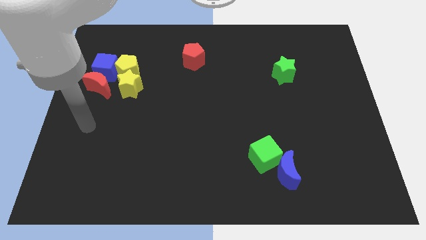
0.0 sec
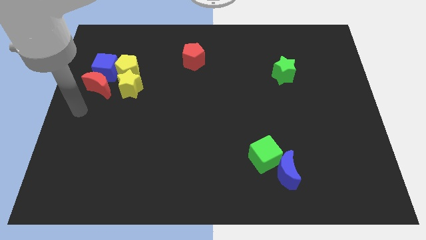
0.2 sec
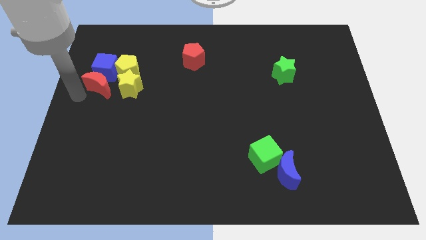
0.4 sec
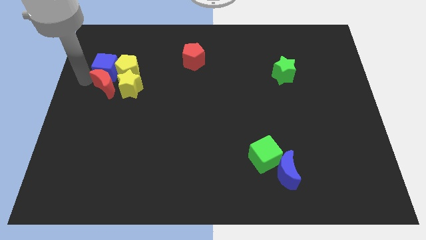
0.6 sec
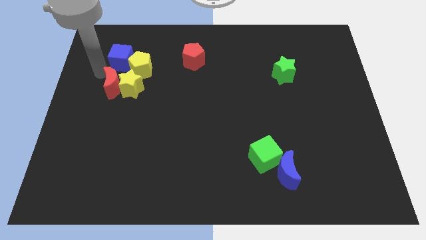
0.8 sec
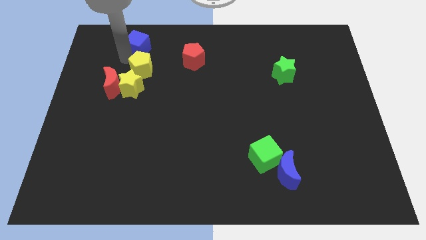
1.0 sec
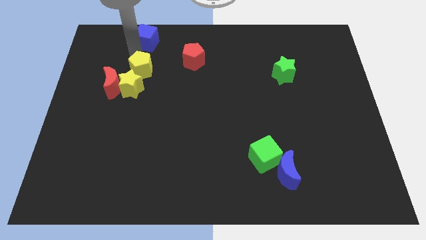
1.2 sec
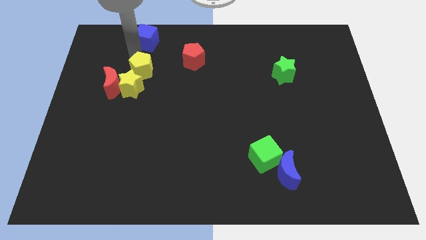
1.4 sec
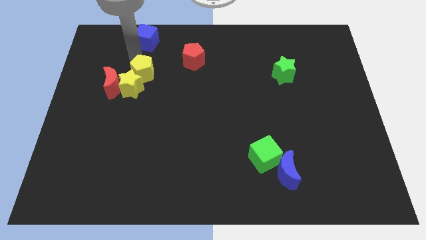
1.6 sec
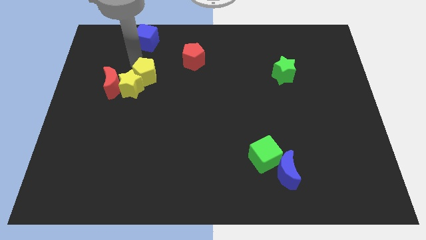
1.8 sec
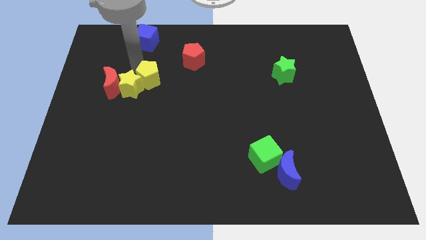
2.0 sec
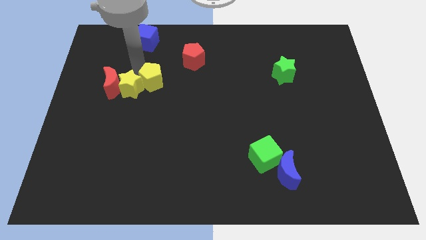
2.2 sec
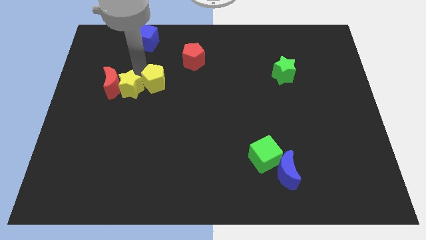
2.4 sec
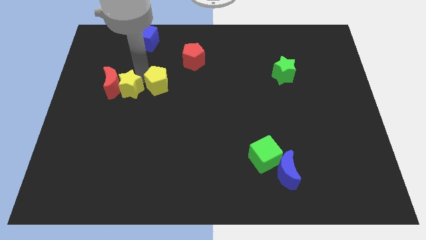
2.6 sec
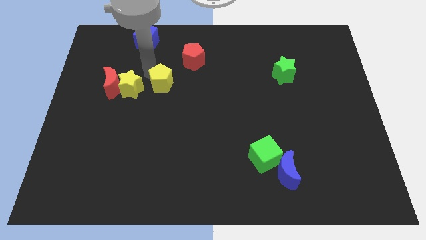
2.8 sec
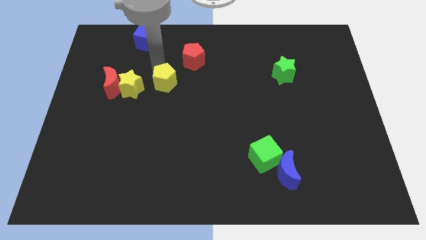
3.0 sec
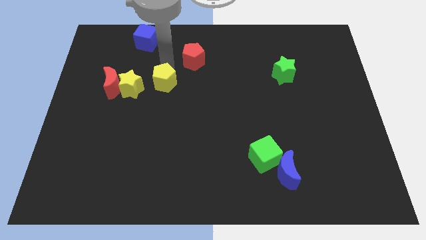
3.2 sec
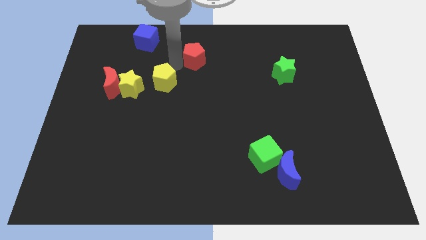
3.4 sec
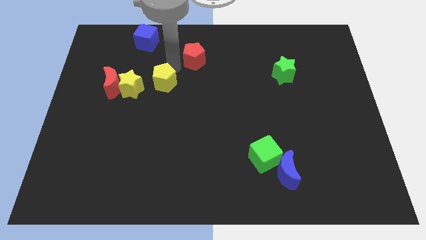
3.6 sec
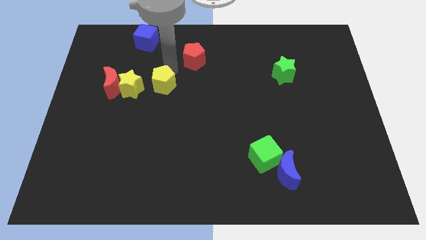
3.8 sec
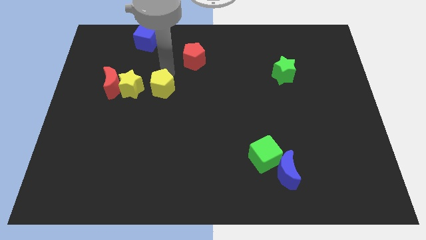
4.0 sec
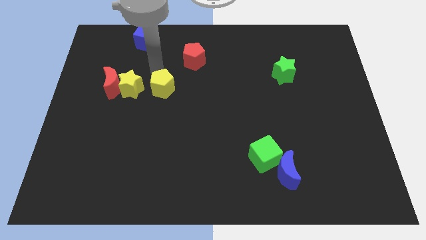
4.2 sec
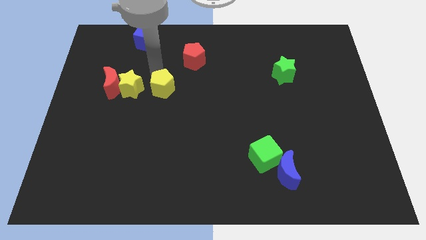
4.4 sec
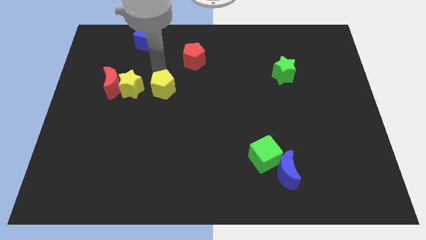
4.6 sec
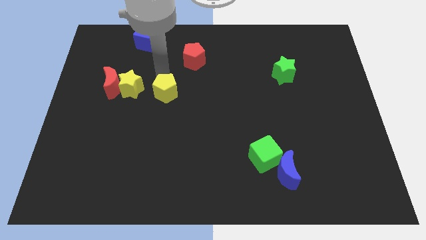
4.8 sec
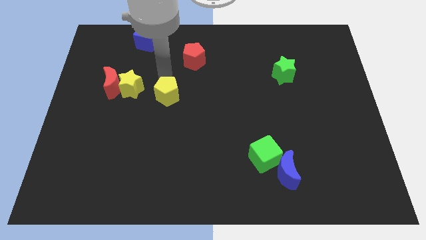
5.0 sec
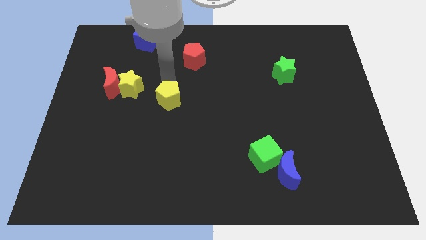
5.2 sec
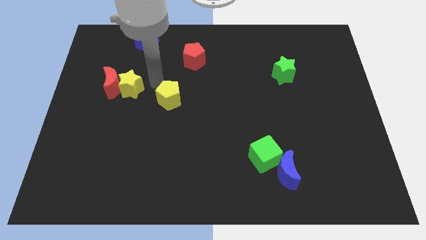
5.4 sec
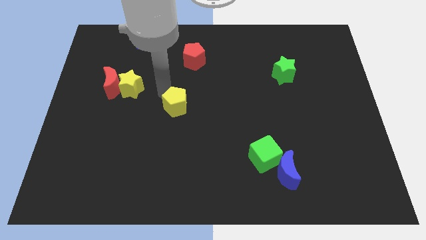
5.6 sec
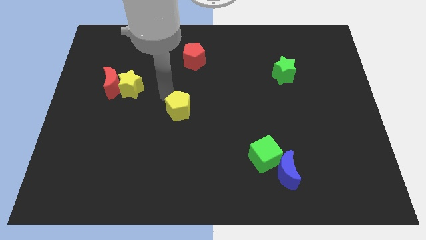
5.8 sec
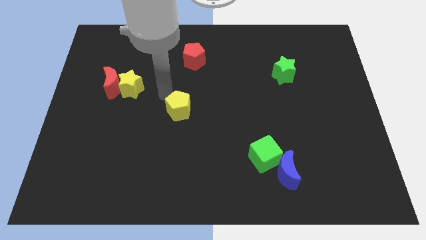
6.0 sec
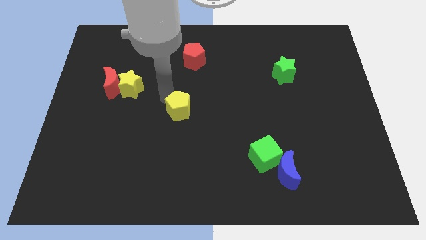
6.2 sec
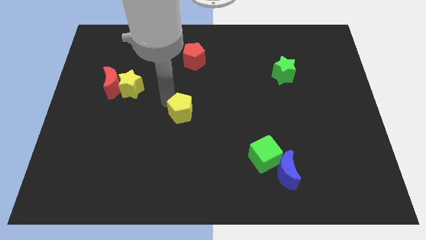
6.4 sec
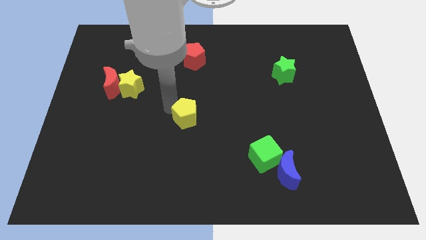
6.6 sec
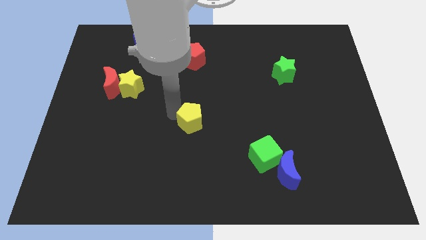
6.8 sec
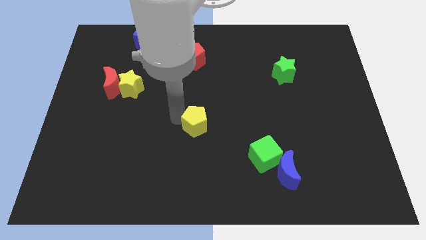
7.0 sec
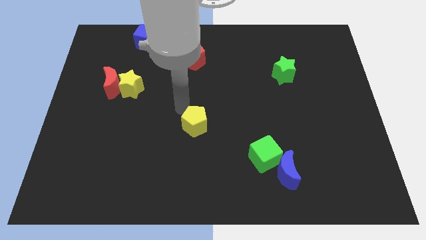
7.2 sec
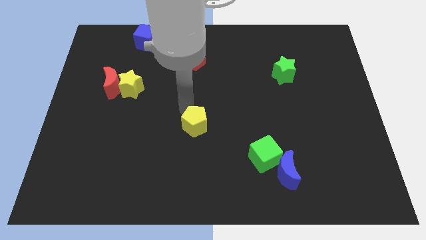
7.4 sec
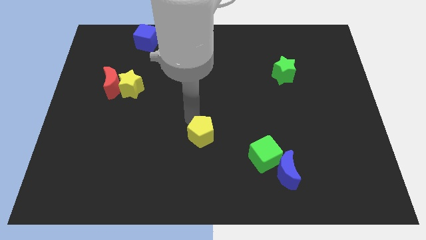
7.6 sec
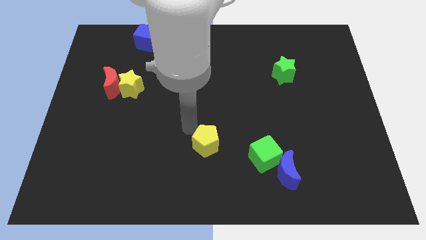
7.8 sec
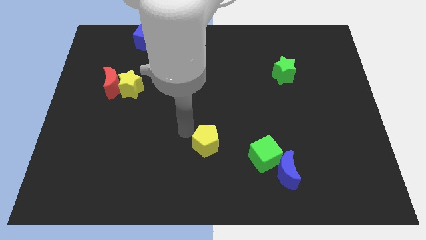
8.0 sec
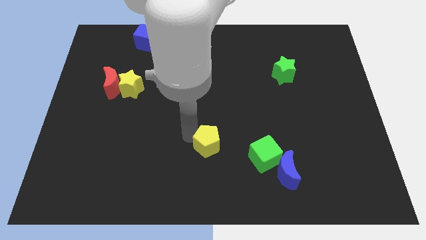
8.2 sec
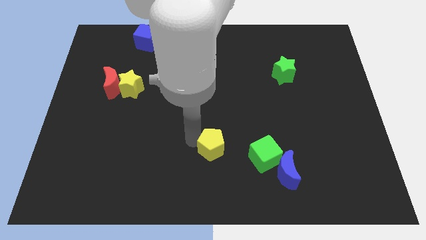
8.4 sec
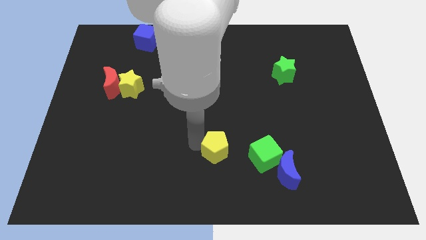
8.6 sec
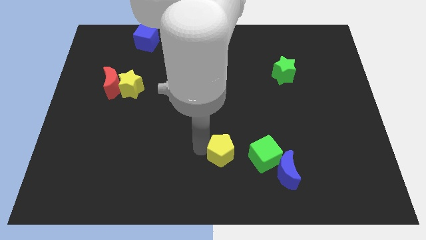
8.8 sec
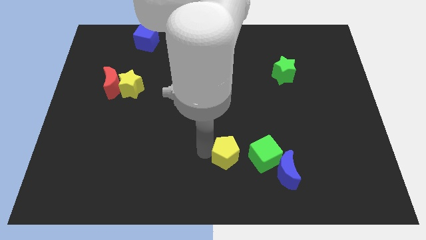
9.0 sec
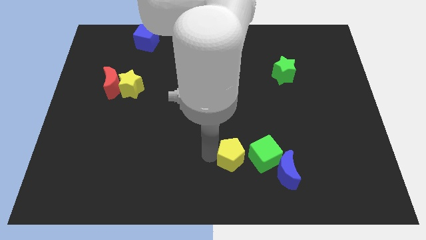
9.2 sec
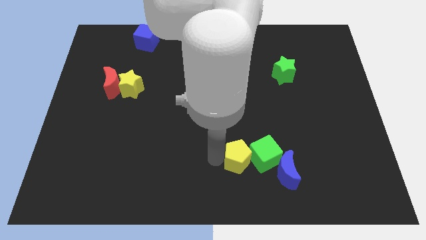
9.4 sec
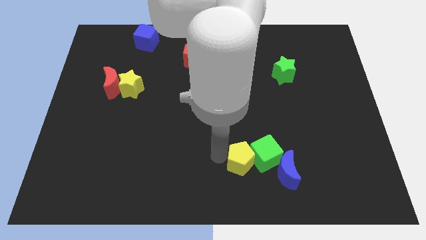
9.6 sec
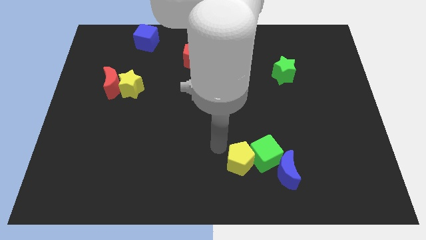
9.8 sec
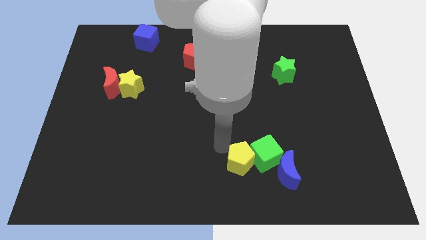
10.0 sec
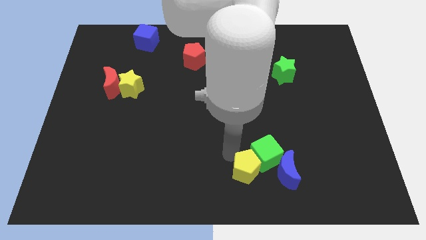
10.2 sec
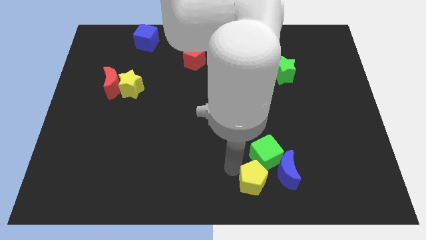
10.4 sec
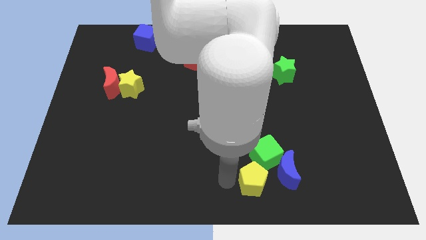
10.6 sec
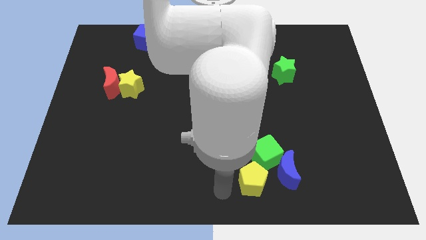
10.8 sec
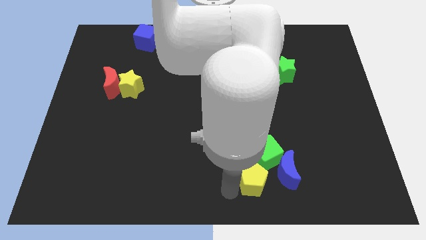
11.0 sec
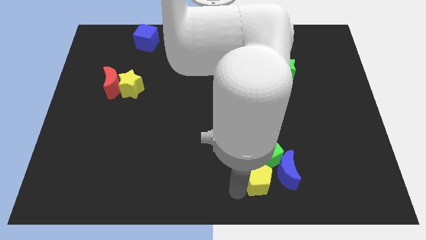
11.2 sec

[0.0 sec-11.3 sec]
push the yellow pentagon close to the blue moon
